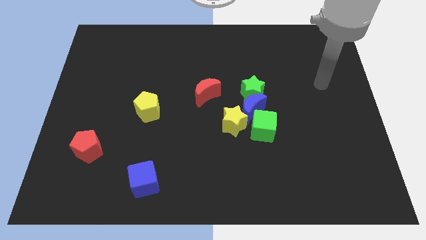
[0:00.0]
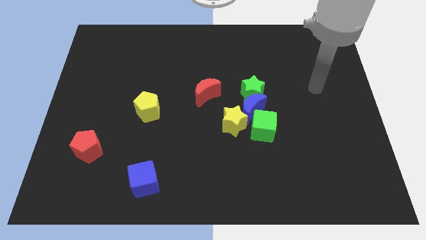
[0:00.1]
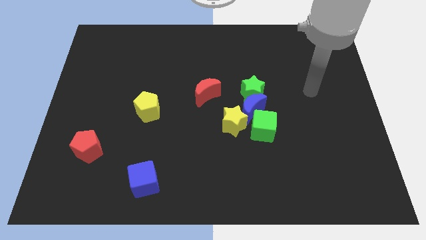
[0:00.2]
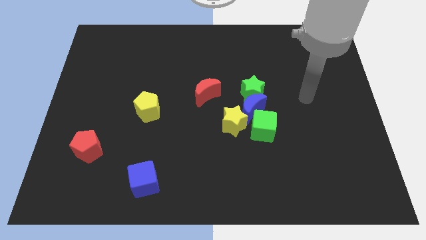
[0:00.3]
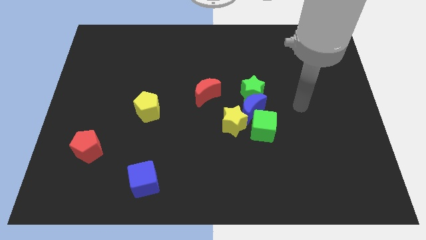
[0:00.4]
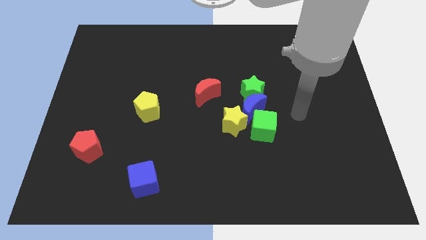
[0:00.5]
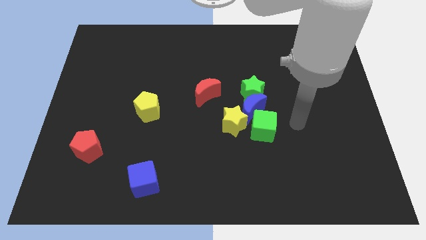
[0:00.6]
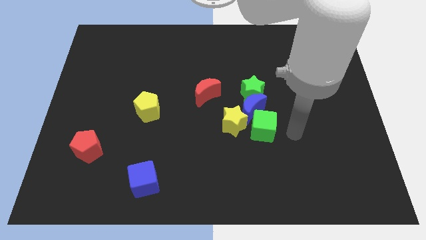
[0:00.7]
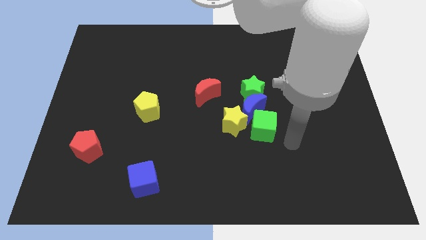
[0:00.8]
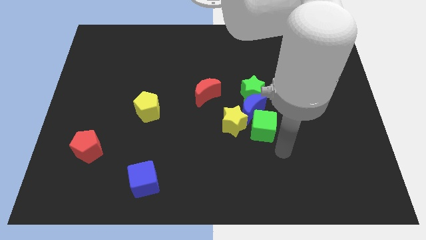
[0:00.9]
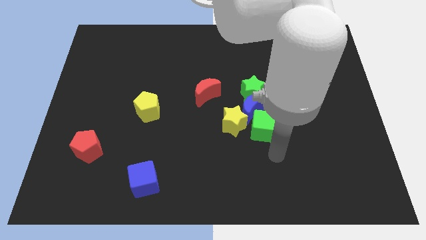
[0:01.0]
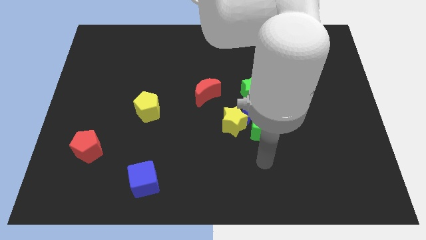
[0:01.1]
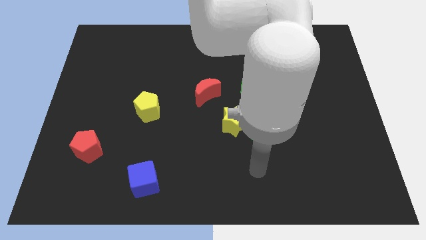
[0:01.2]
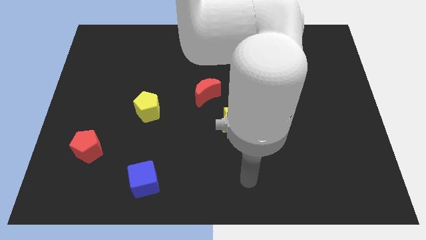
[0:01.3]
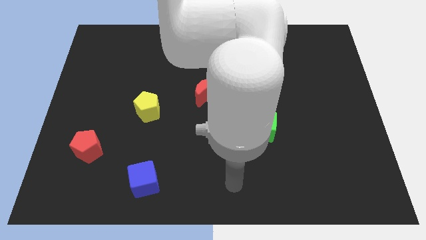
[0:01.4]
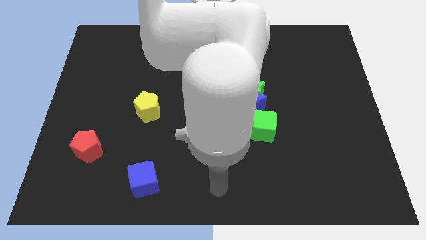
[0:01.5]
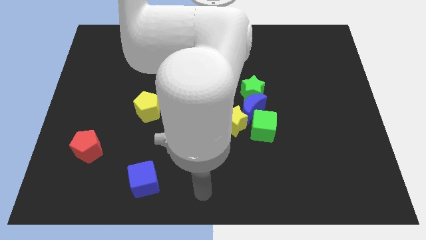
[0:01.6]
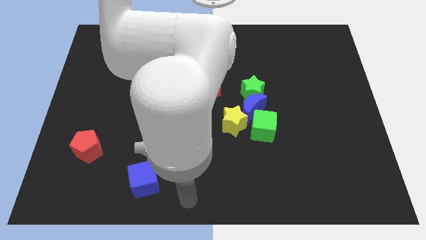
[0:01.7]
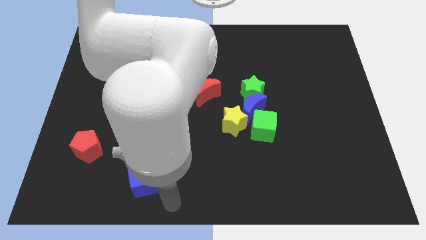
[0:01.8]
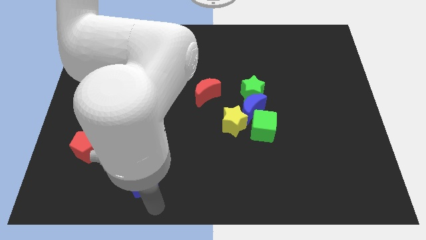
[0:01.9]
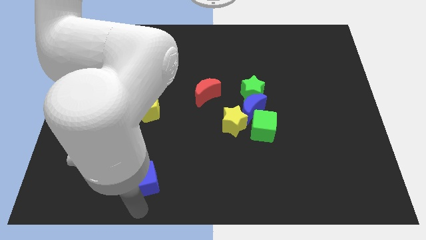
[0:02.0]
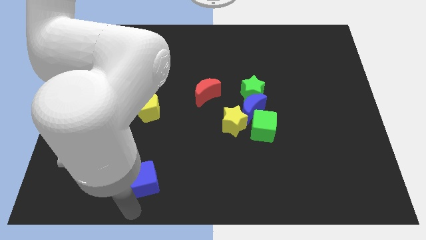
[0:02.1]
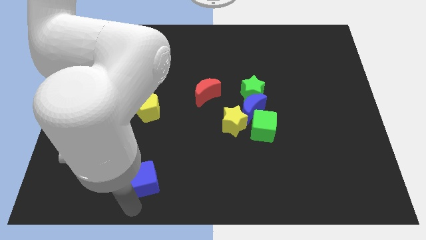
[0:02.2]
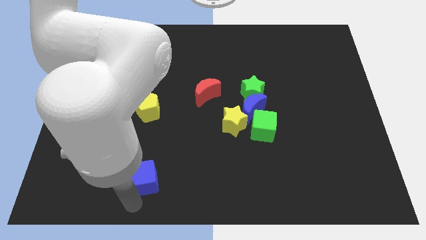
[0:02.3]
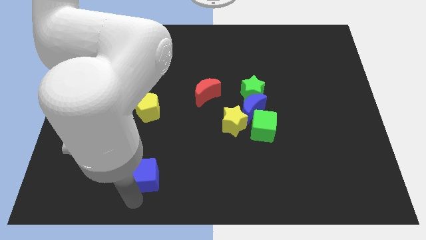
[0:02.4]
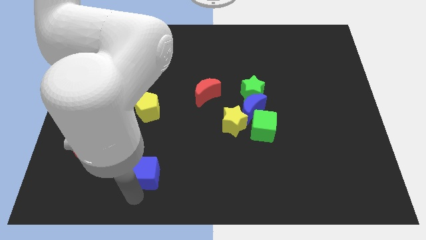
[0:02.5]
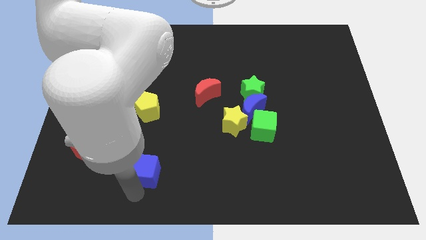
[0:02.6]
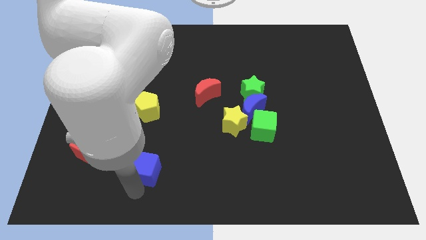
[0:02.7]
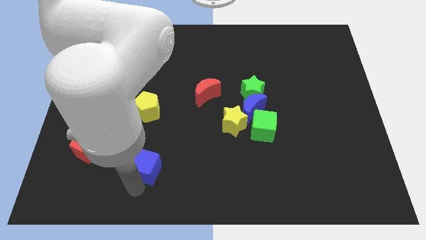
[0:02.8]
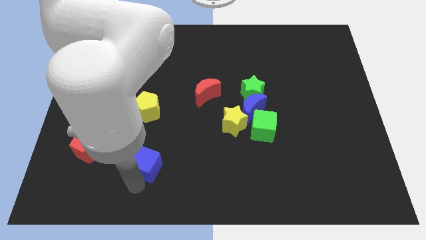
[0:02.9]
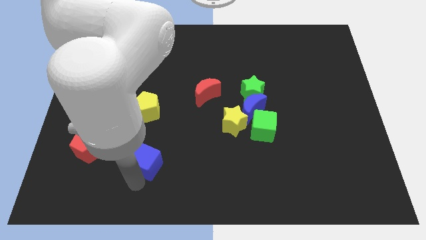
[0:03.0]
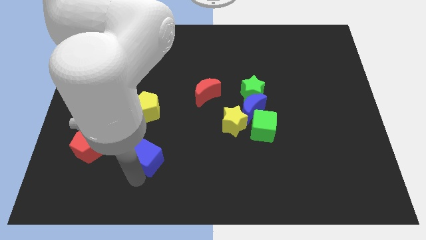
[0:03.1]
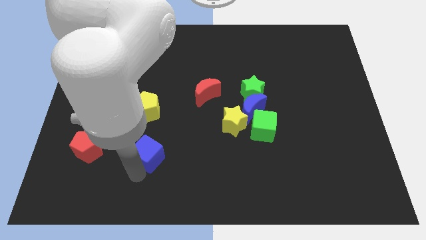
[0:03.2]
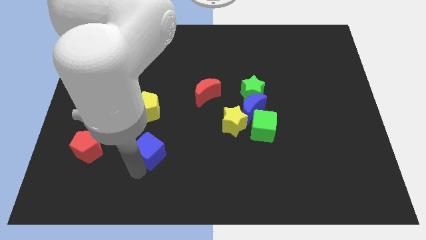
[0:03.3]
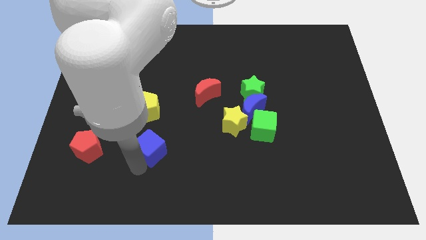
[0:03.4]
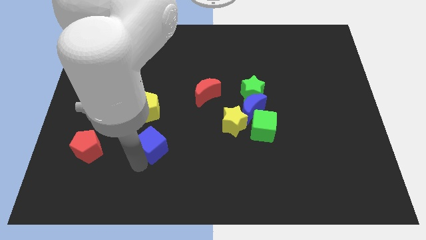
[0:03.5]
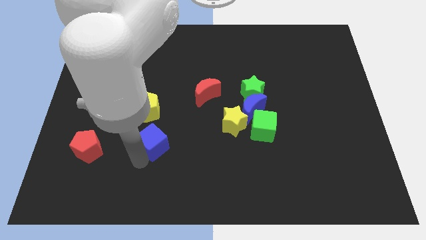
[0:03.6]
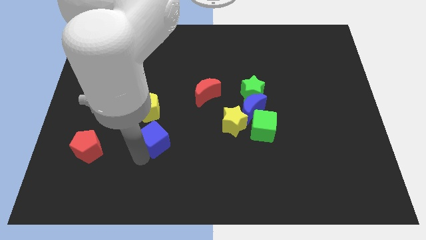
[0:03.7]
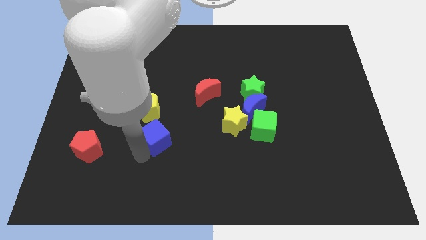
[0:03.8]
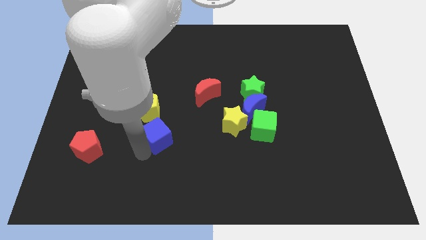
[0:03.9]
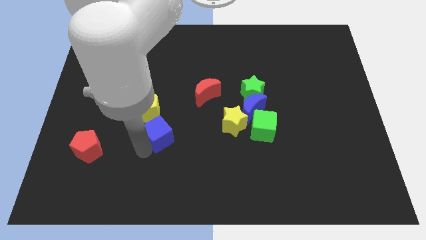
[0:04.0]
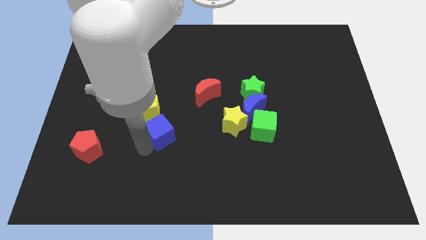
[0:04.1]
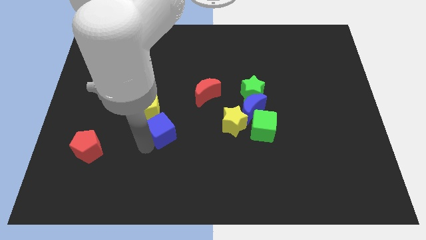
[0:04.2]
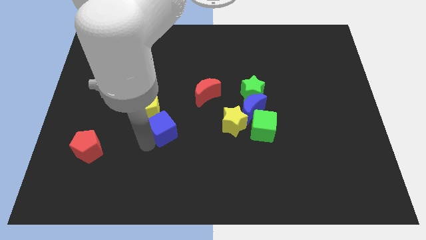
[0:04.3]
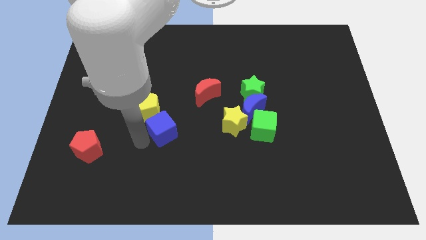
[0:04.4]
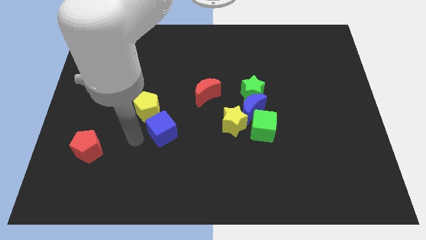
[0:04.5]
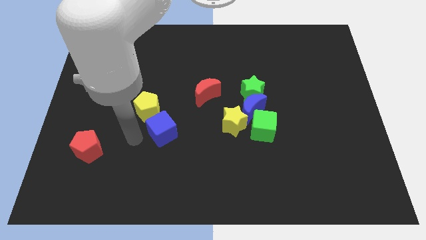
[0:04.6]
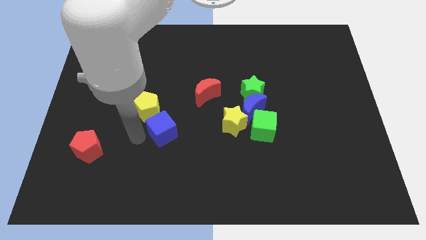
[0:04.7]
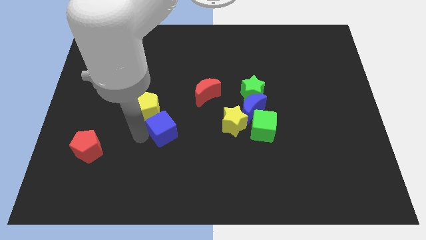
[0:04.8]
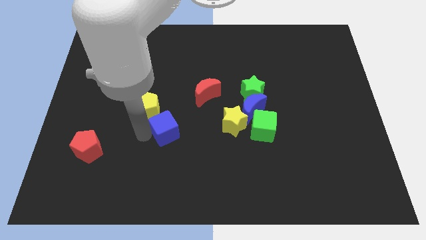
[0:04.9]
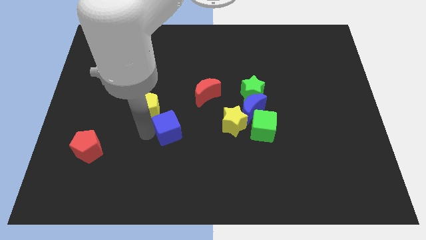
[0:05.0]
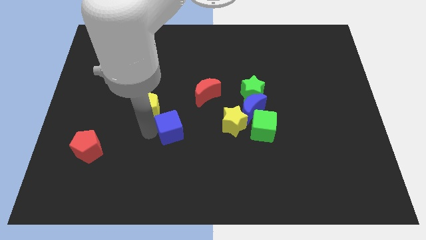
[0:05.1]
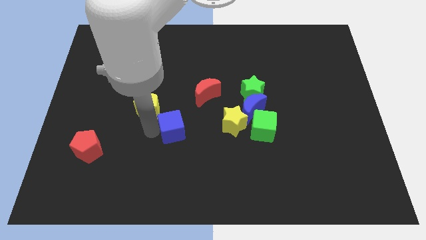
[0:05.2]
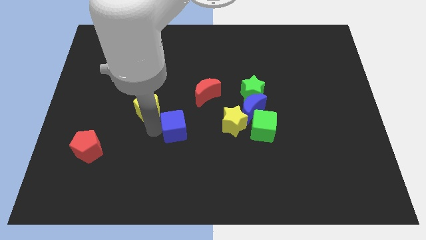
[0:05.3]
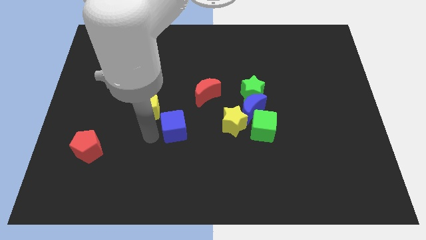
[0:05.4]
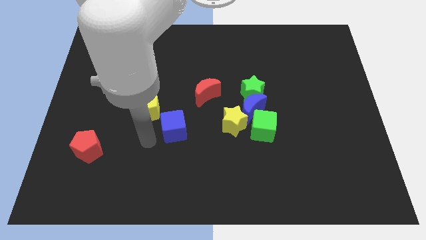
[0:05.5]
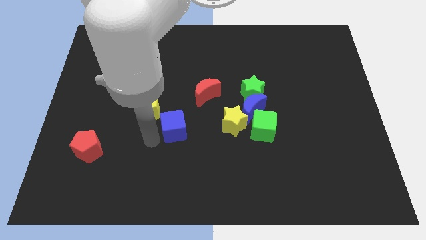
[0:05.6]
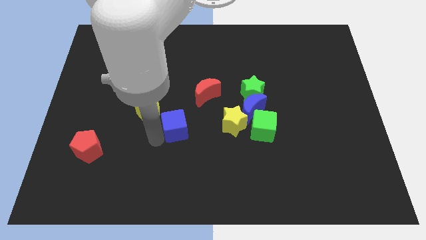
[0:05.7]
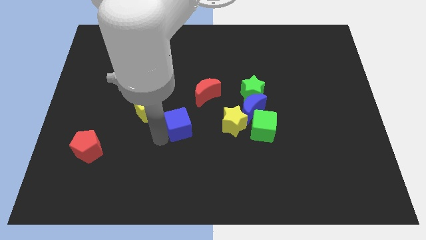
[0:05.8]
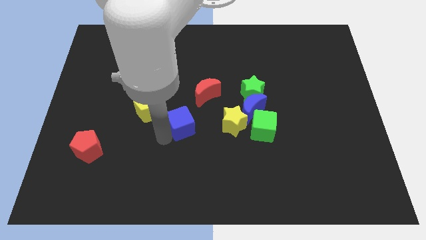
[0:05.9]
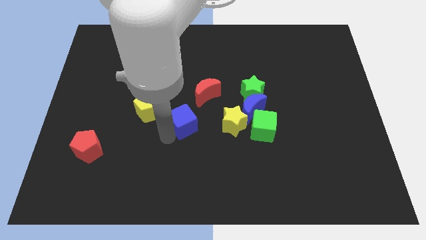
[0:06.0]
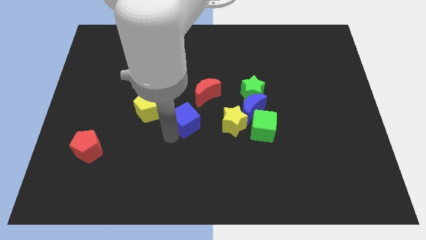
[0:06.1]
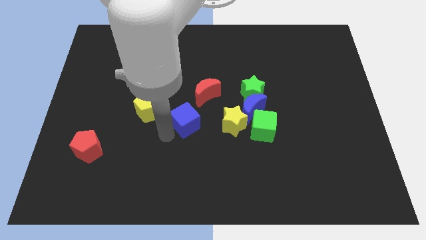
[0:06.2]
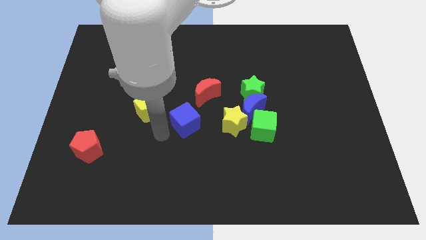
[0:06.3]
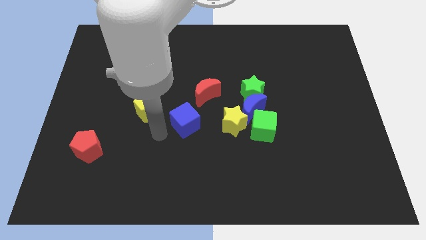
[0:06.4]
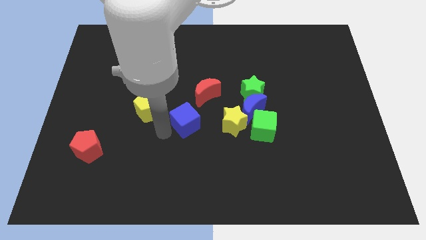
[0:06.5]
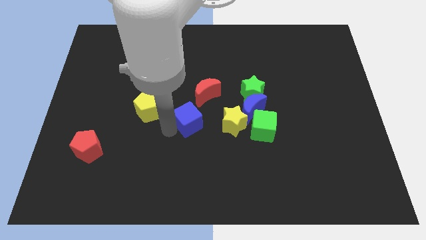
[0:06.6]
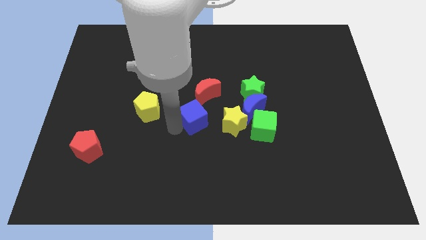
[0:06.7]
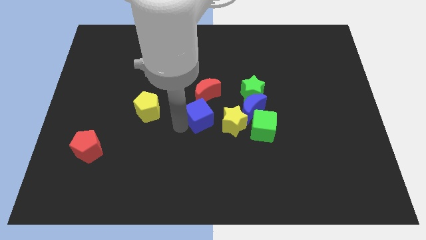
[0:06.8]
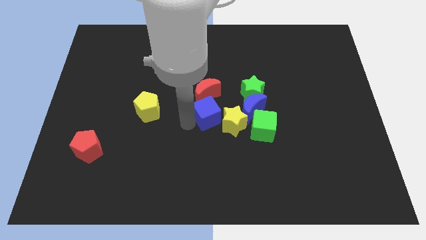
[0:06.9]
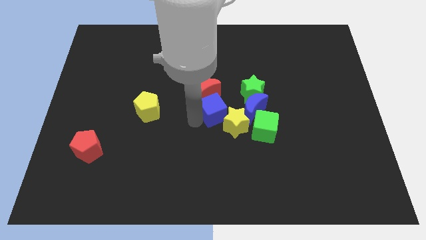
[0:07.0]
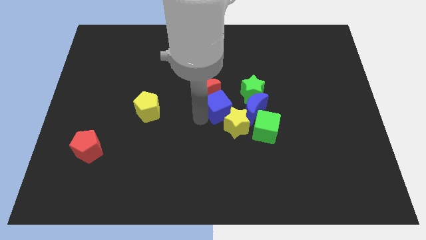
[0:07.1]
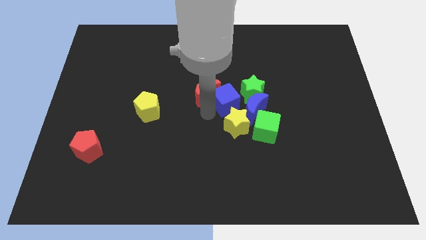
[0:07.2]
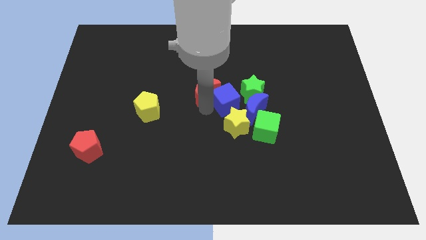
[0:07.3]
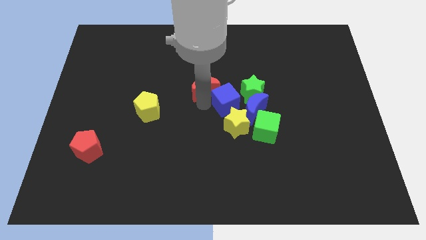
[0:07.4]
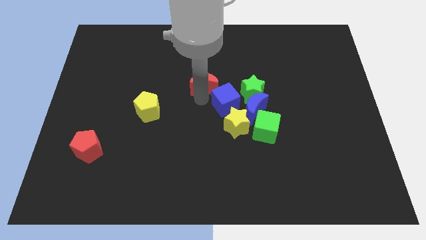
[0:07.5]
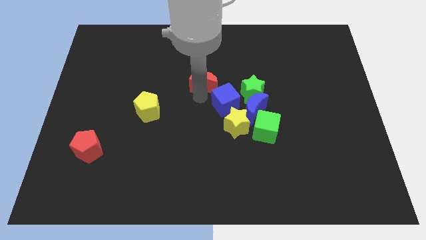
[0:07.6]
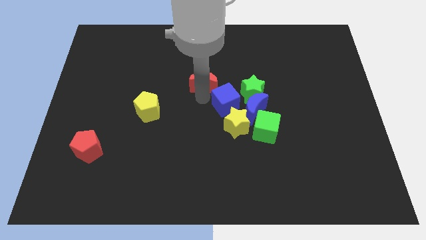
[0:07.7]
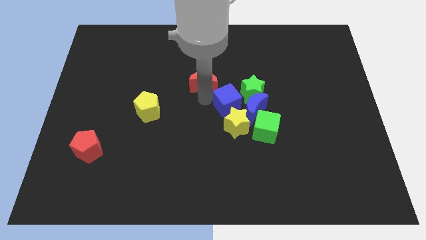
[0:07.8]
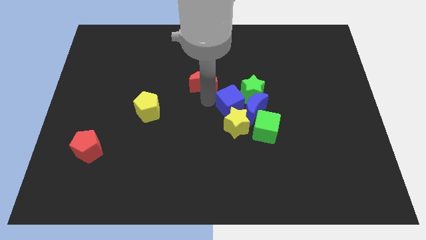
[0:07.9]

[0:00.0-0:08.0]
put the blue cube next to the blue moon
